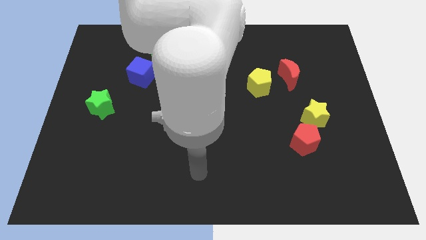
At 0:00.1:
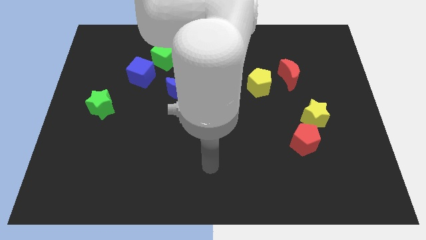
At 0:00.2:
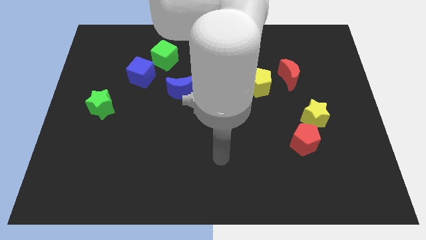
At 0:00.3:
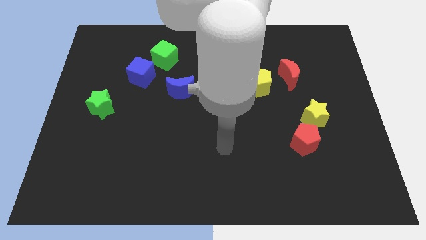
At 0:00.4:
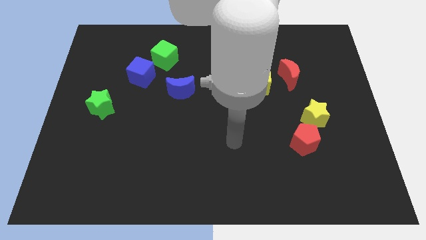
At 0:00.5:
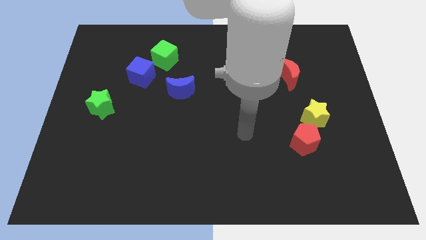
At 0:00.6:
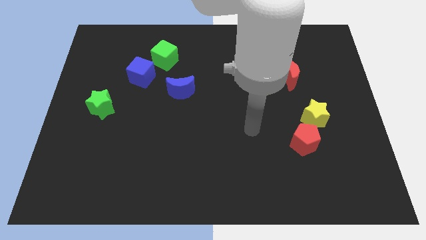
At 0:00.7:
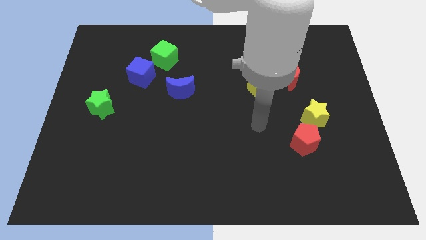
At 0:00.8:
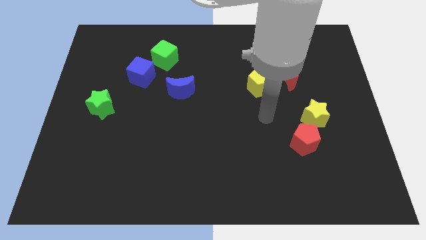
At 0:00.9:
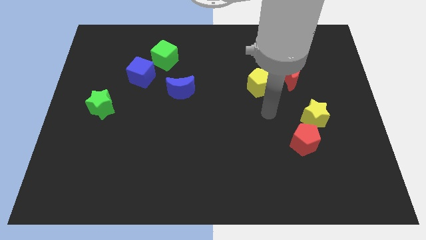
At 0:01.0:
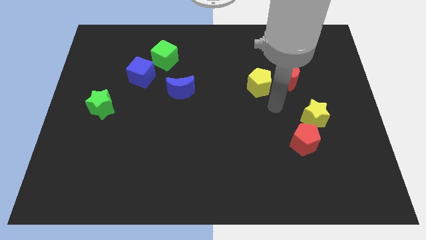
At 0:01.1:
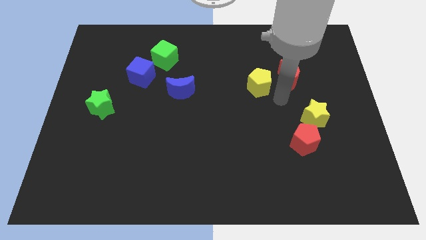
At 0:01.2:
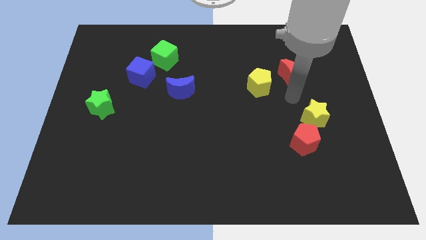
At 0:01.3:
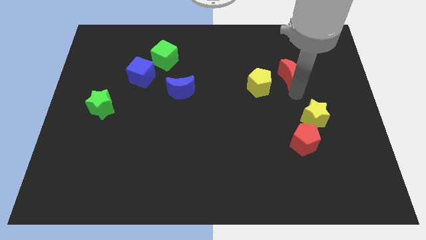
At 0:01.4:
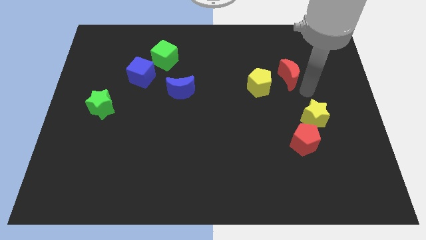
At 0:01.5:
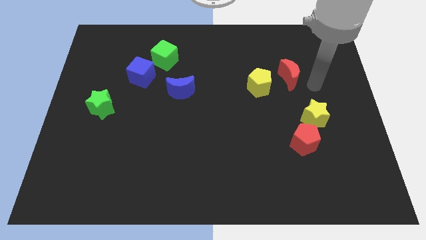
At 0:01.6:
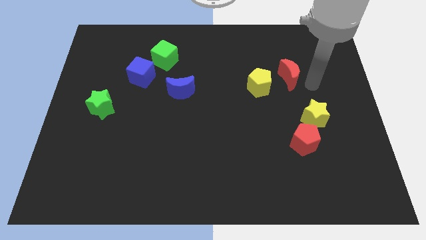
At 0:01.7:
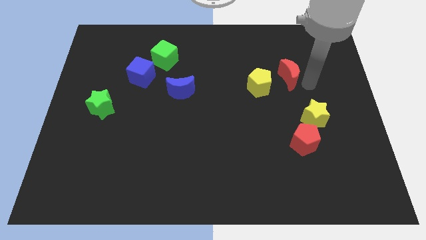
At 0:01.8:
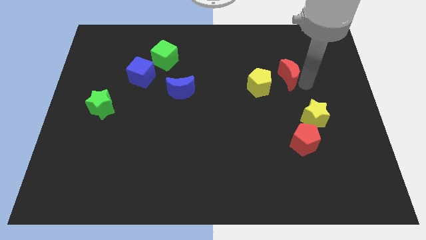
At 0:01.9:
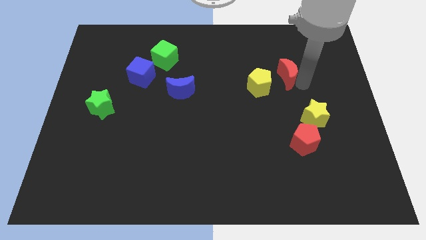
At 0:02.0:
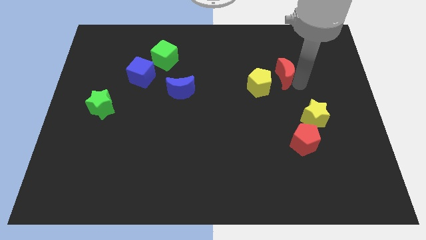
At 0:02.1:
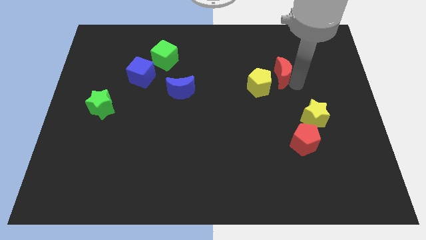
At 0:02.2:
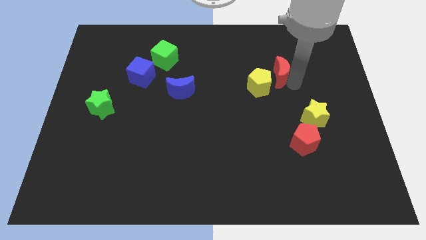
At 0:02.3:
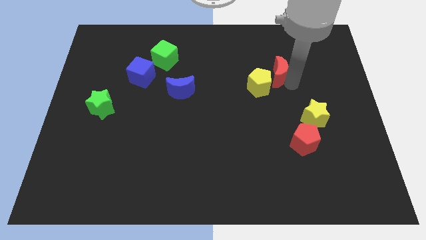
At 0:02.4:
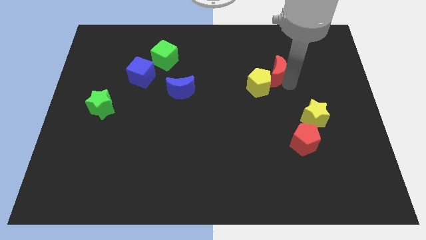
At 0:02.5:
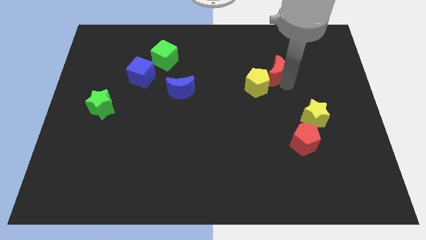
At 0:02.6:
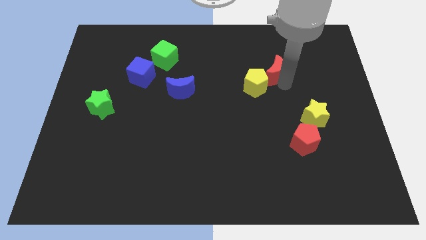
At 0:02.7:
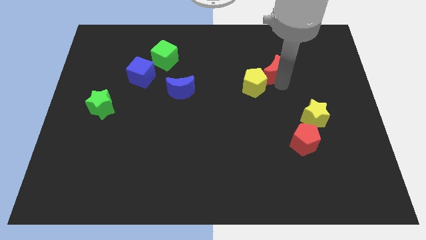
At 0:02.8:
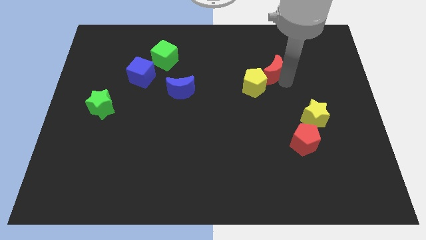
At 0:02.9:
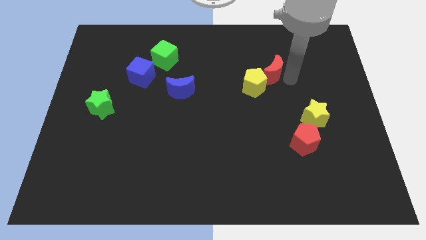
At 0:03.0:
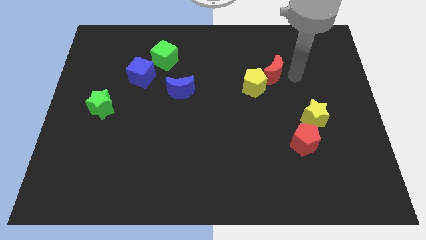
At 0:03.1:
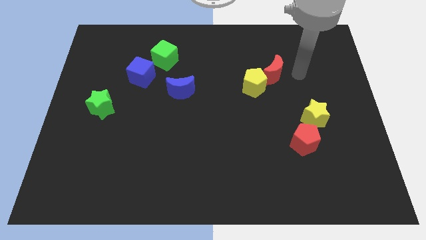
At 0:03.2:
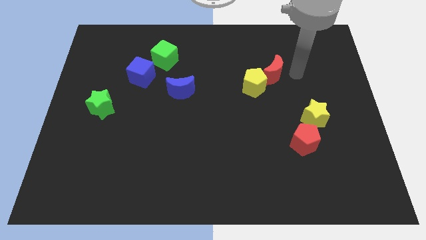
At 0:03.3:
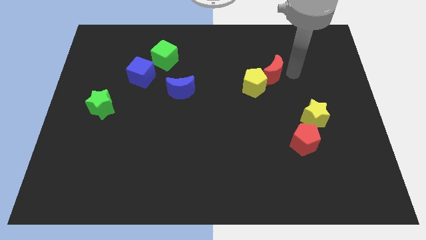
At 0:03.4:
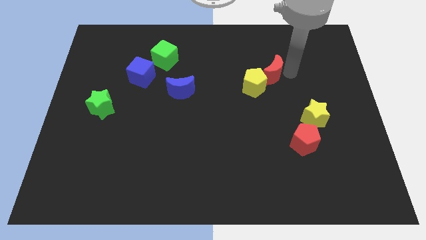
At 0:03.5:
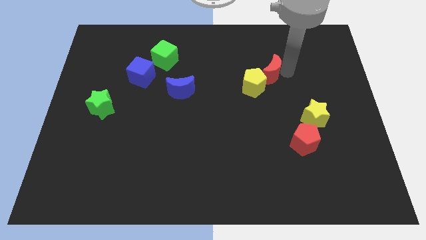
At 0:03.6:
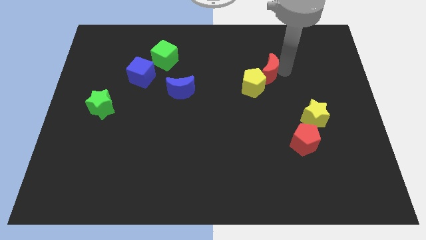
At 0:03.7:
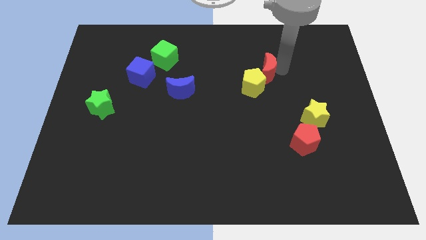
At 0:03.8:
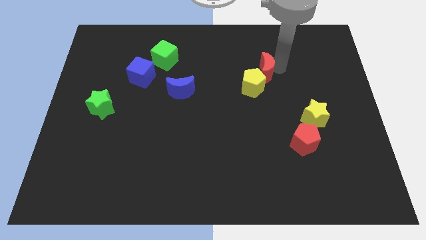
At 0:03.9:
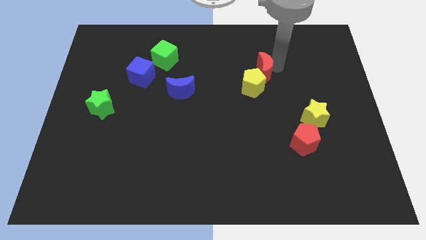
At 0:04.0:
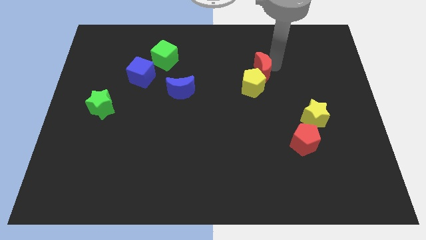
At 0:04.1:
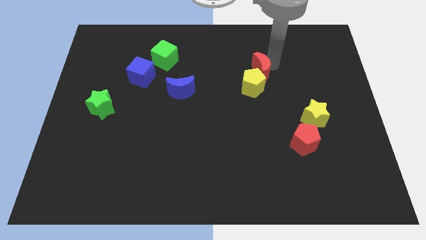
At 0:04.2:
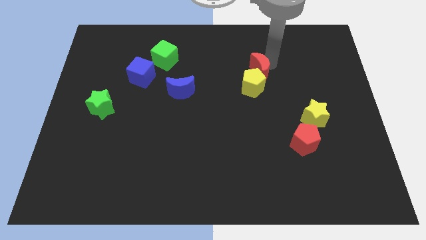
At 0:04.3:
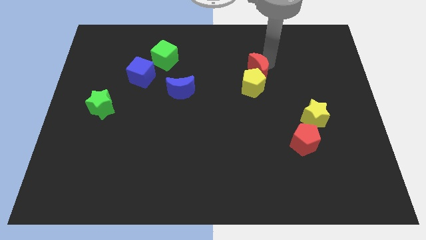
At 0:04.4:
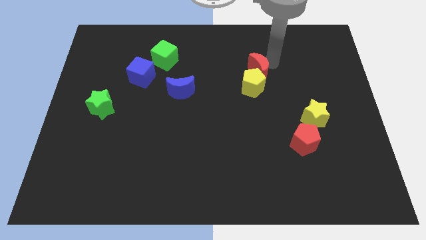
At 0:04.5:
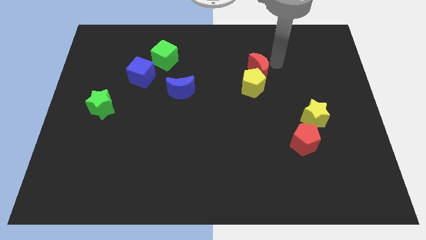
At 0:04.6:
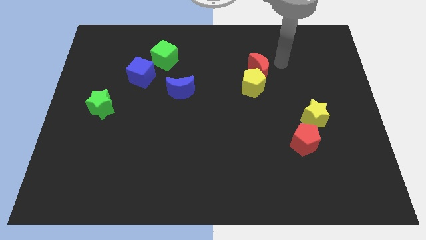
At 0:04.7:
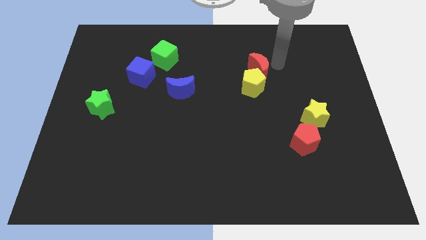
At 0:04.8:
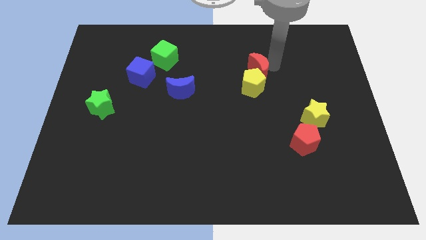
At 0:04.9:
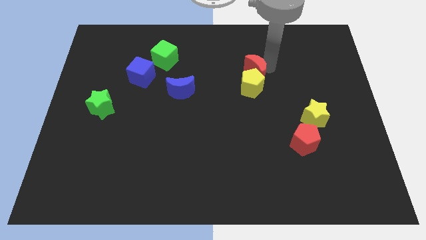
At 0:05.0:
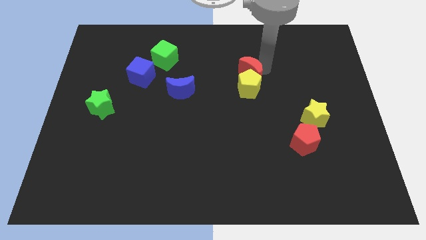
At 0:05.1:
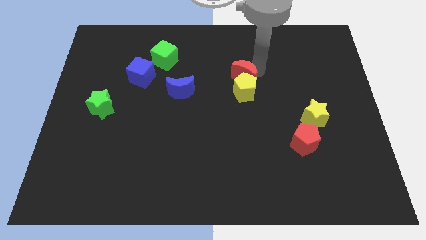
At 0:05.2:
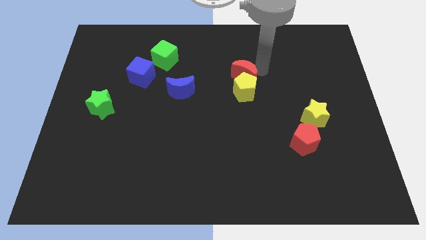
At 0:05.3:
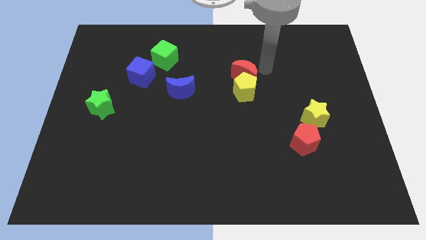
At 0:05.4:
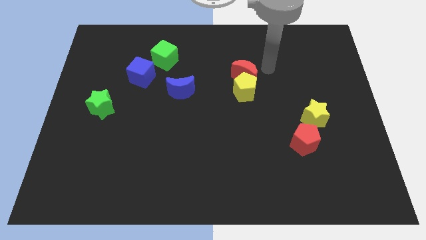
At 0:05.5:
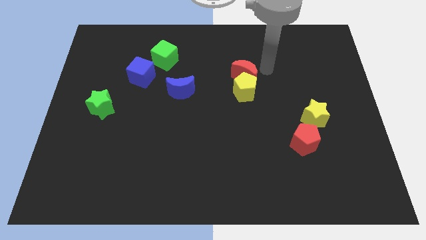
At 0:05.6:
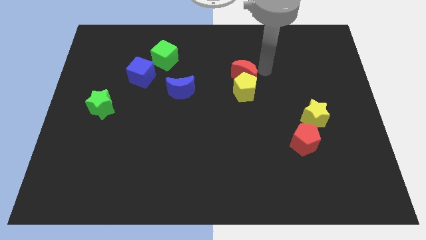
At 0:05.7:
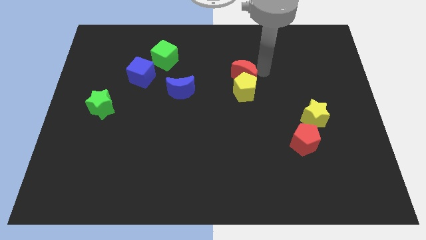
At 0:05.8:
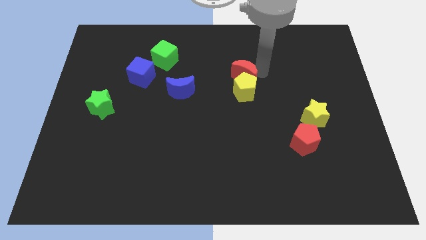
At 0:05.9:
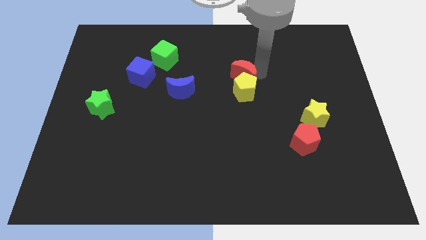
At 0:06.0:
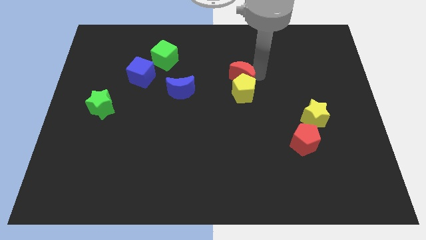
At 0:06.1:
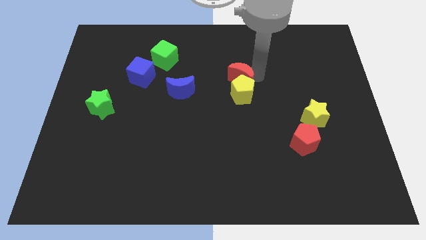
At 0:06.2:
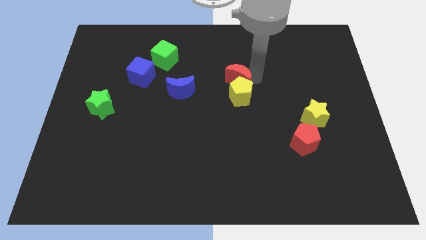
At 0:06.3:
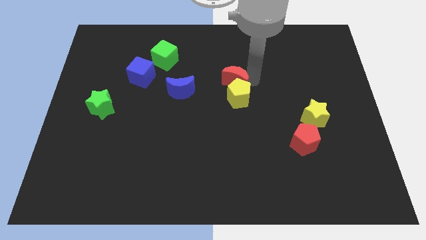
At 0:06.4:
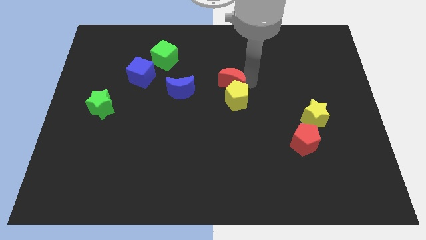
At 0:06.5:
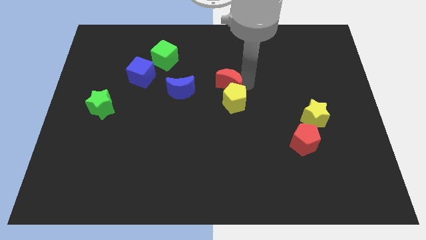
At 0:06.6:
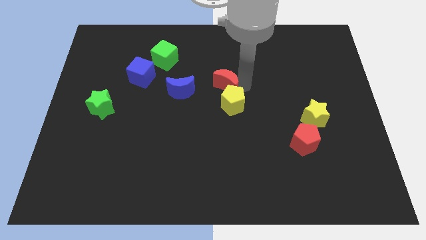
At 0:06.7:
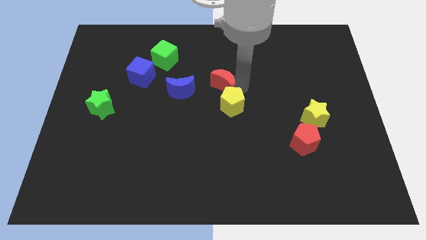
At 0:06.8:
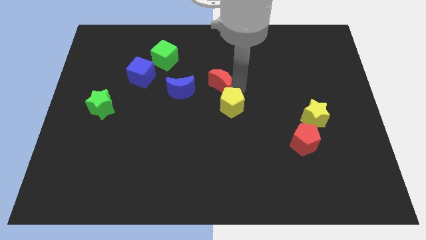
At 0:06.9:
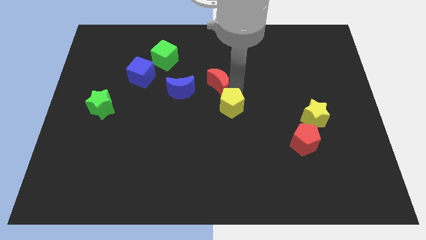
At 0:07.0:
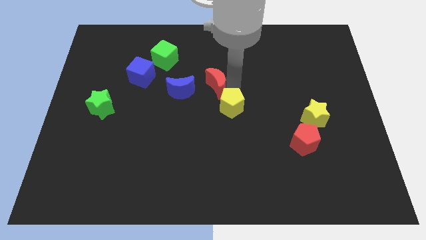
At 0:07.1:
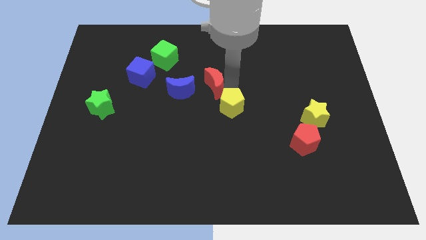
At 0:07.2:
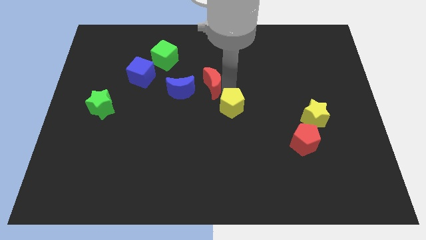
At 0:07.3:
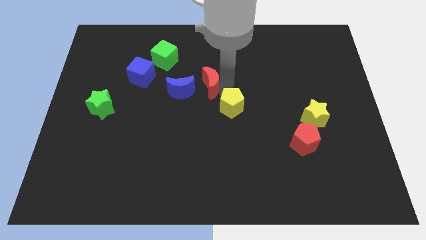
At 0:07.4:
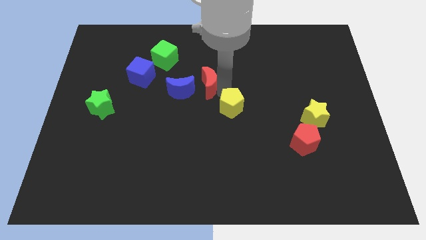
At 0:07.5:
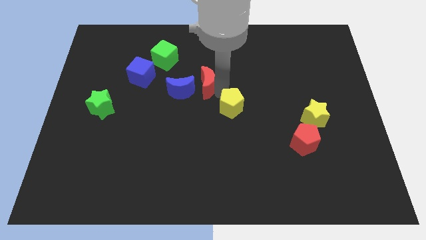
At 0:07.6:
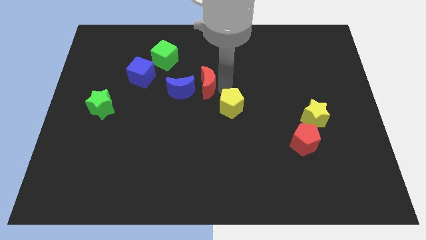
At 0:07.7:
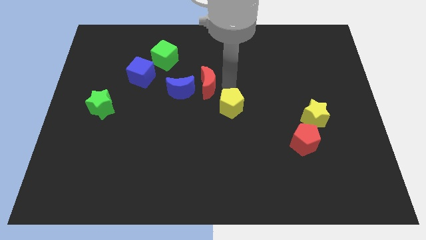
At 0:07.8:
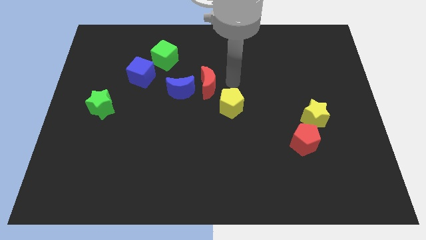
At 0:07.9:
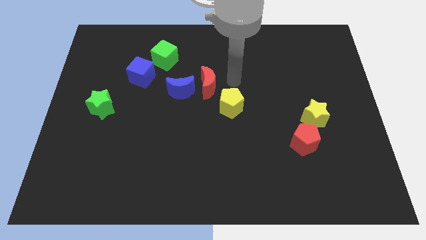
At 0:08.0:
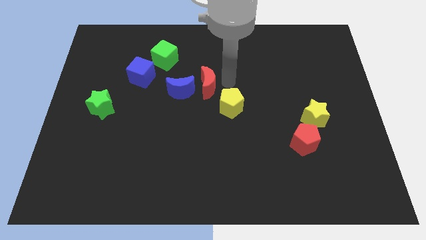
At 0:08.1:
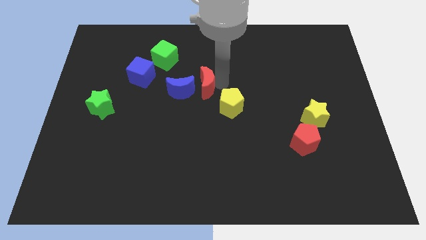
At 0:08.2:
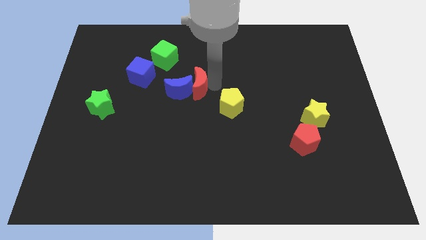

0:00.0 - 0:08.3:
slide the red moon to the blue moon
